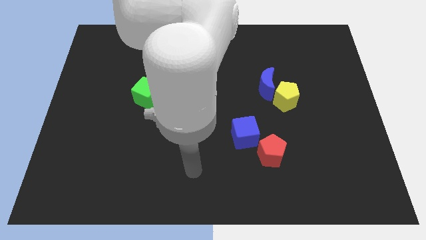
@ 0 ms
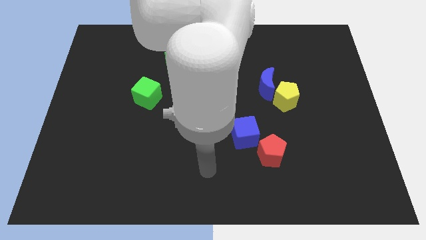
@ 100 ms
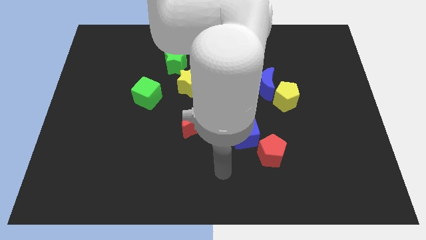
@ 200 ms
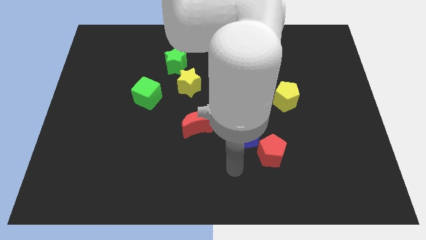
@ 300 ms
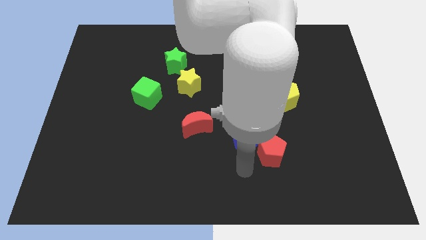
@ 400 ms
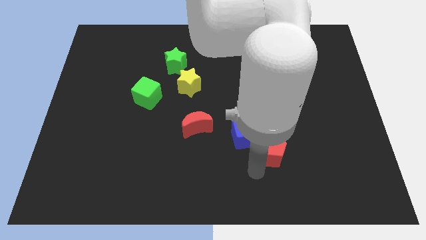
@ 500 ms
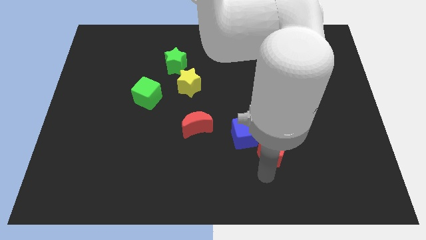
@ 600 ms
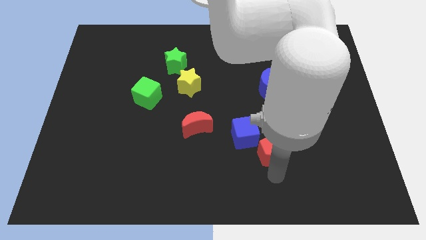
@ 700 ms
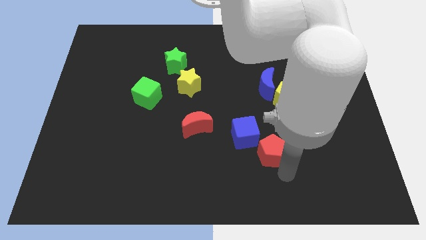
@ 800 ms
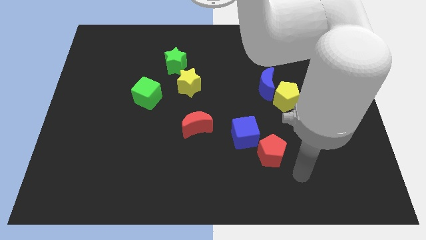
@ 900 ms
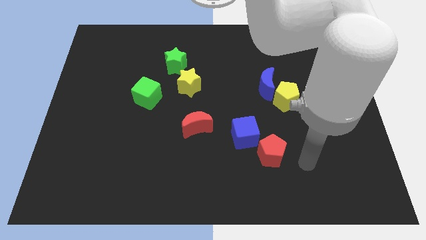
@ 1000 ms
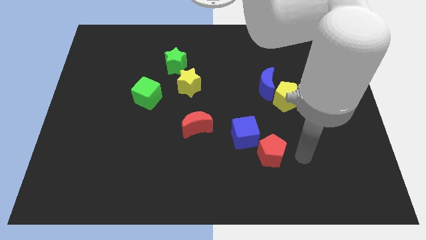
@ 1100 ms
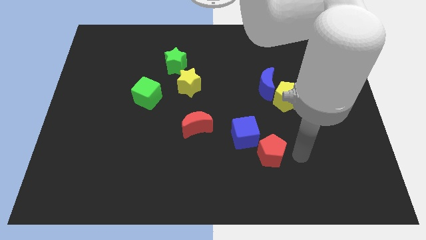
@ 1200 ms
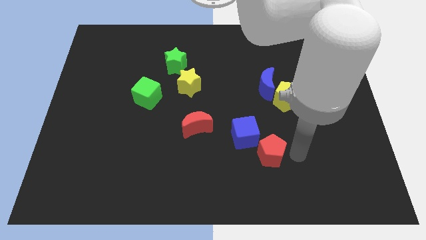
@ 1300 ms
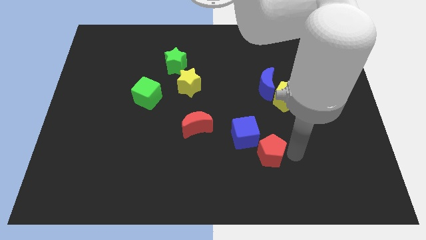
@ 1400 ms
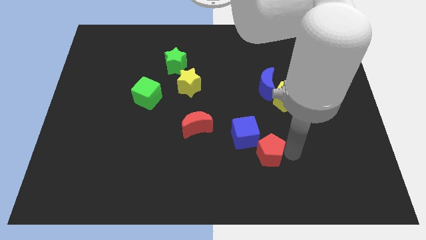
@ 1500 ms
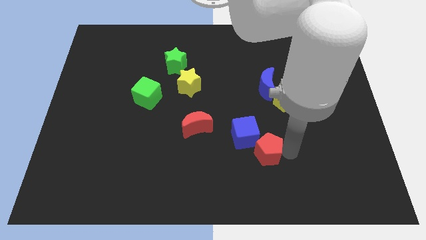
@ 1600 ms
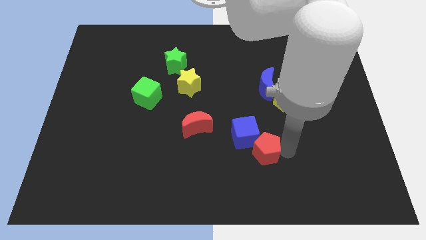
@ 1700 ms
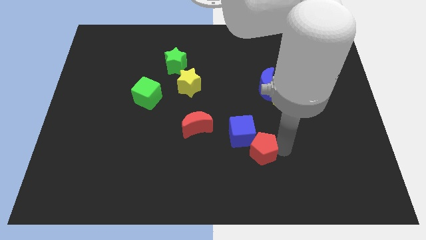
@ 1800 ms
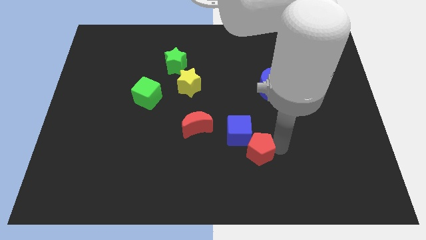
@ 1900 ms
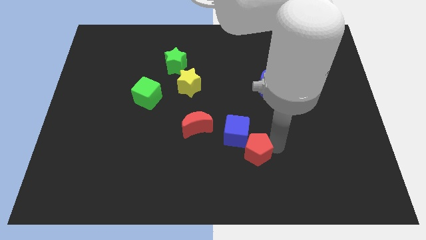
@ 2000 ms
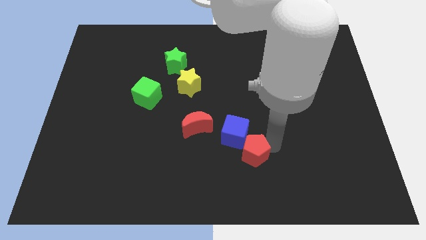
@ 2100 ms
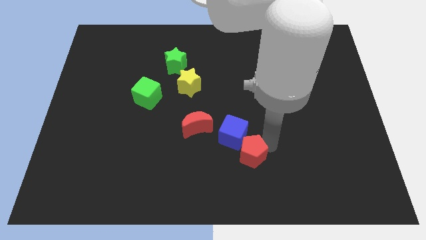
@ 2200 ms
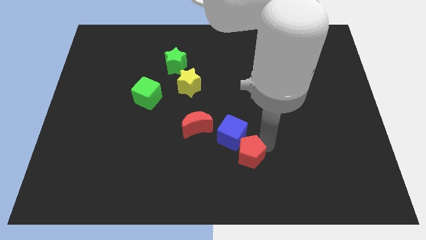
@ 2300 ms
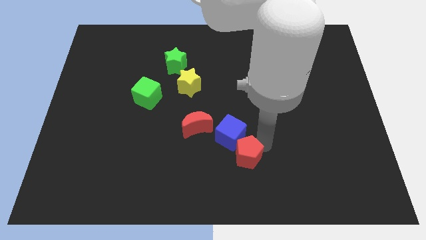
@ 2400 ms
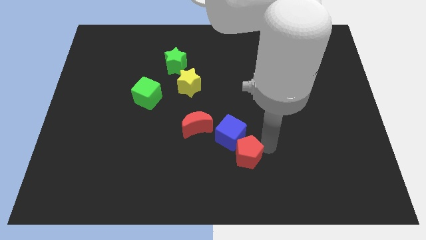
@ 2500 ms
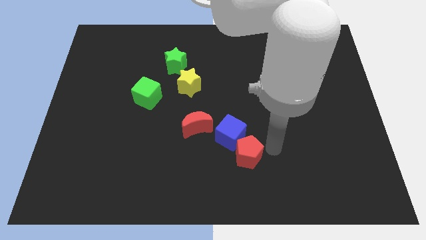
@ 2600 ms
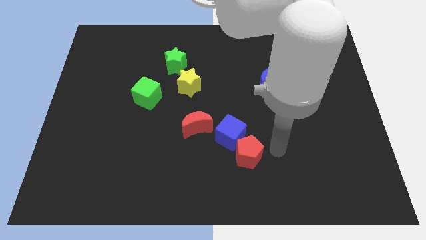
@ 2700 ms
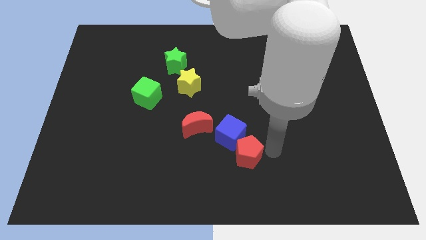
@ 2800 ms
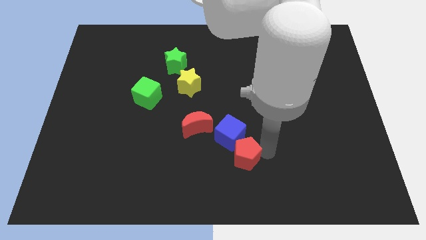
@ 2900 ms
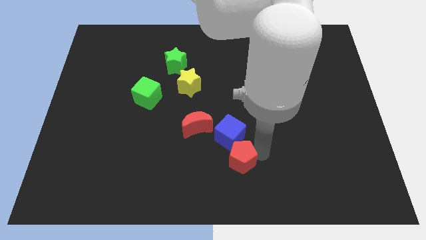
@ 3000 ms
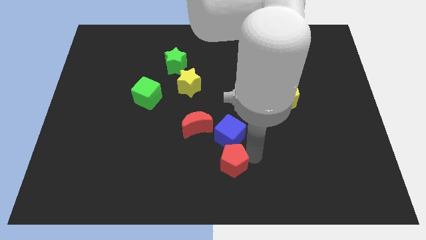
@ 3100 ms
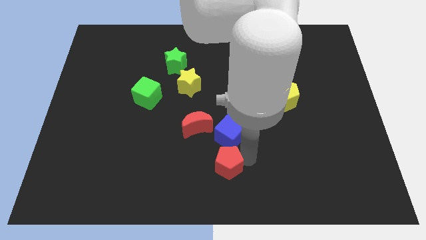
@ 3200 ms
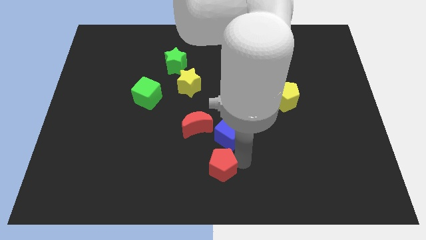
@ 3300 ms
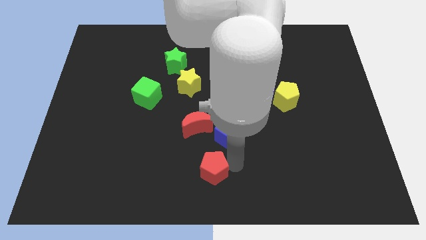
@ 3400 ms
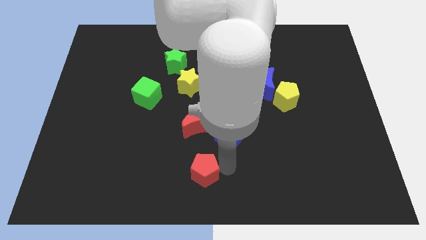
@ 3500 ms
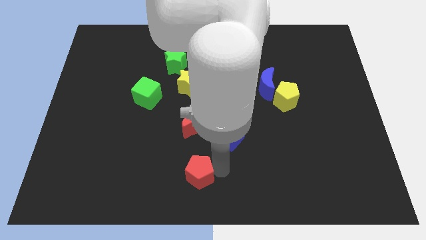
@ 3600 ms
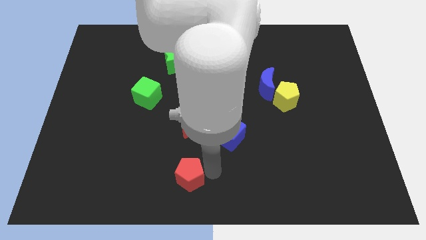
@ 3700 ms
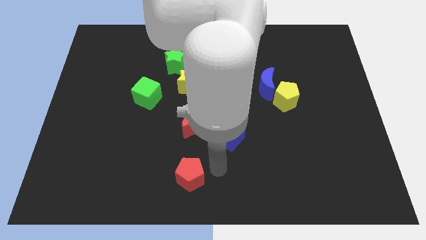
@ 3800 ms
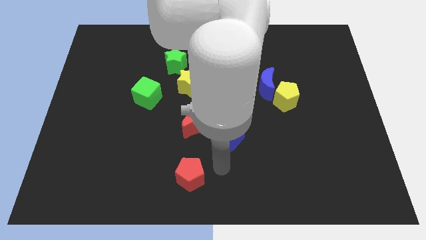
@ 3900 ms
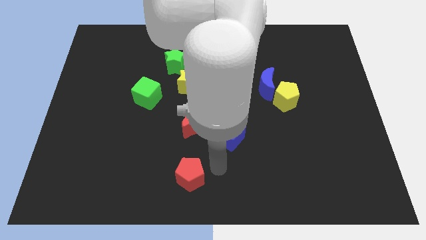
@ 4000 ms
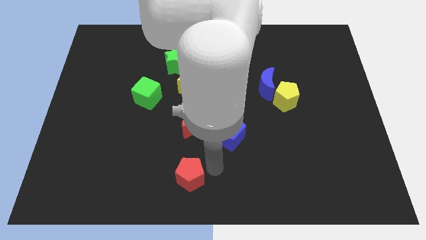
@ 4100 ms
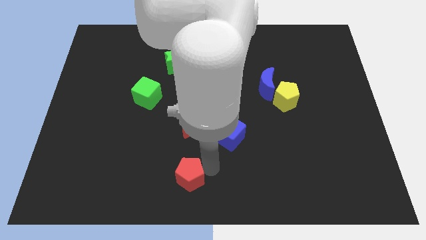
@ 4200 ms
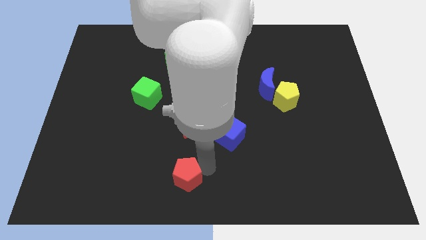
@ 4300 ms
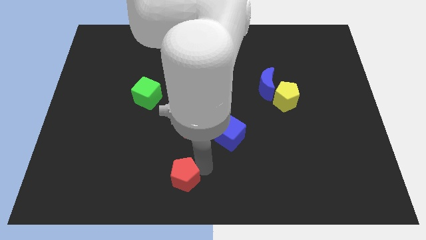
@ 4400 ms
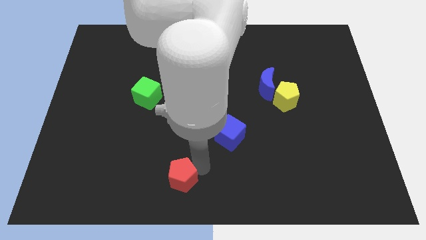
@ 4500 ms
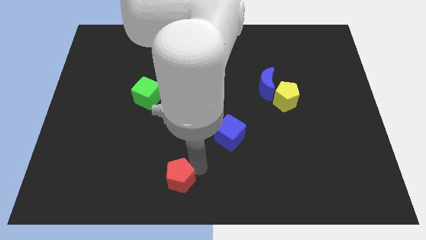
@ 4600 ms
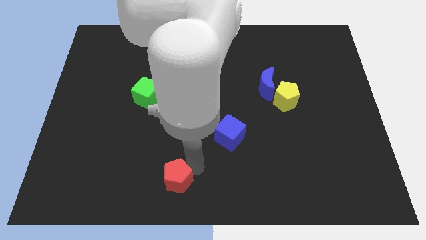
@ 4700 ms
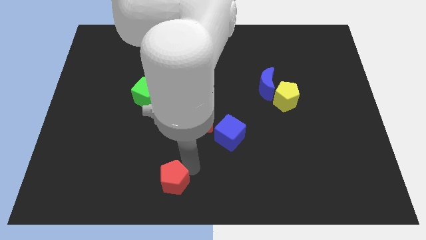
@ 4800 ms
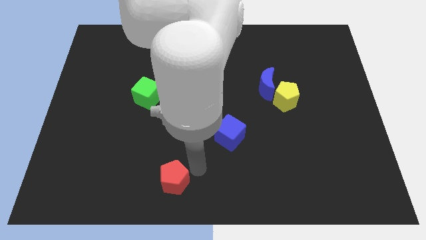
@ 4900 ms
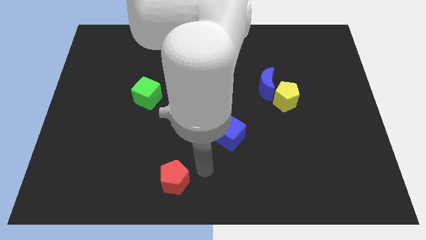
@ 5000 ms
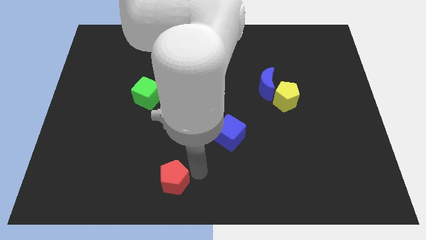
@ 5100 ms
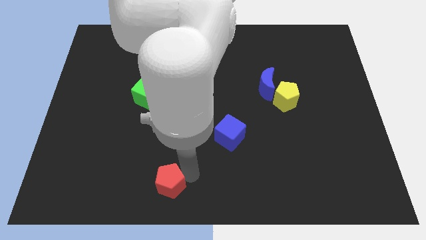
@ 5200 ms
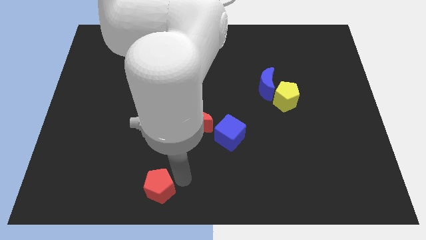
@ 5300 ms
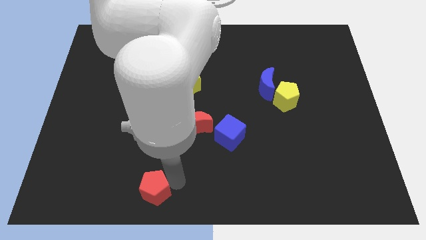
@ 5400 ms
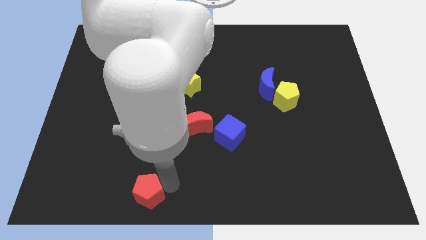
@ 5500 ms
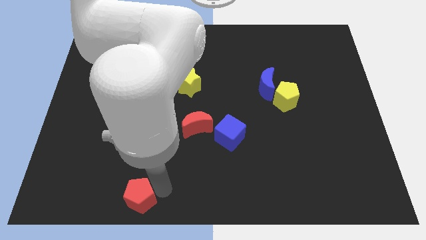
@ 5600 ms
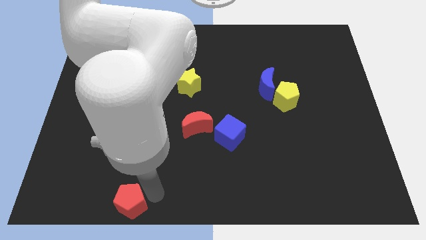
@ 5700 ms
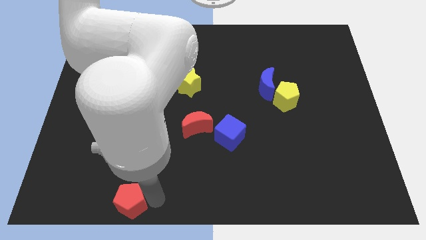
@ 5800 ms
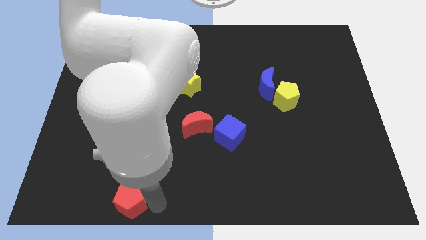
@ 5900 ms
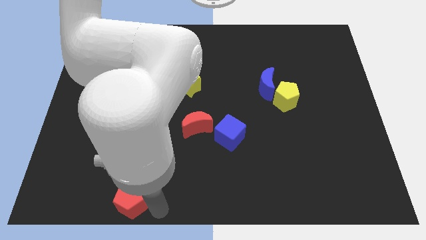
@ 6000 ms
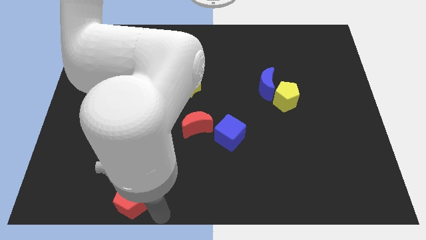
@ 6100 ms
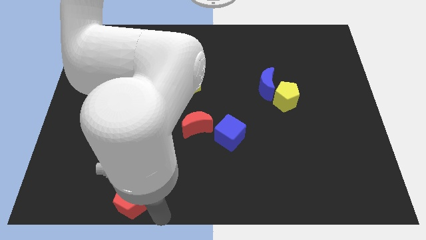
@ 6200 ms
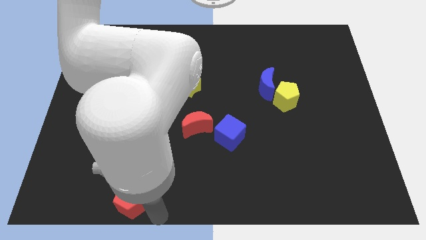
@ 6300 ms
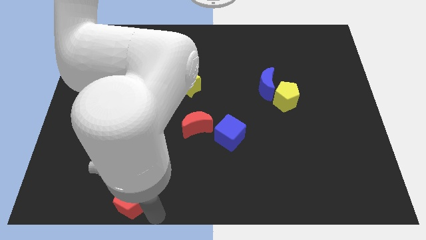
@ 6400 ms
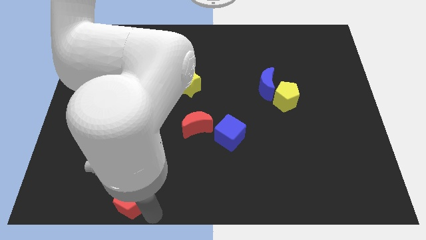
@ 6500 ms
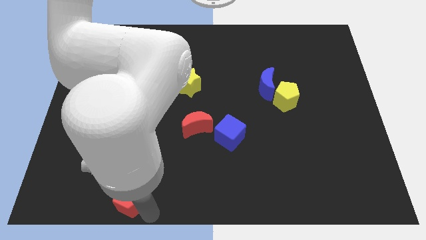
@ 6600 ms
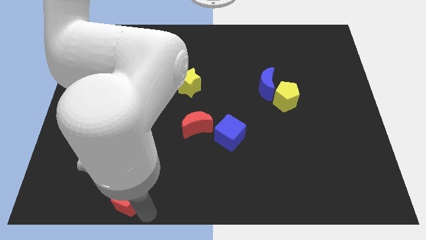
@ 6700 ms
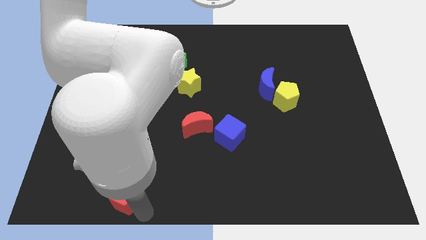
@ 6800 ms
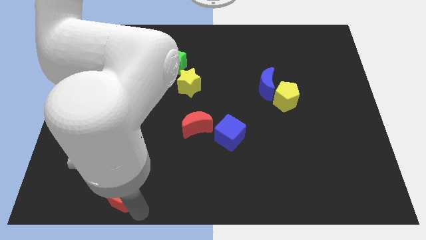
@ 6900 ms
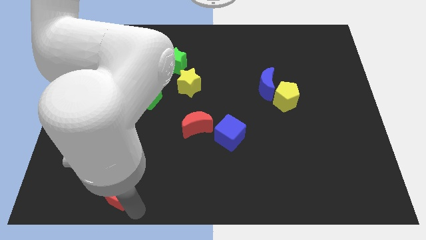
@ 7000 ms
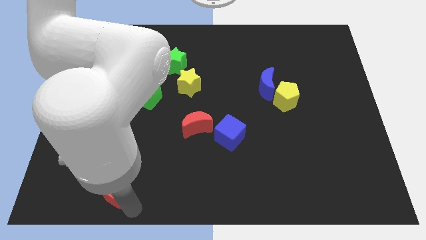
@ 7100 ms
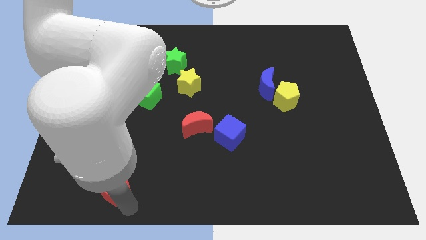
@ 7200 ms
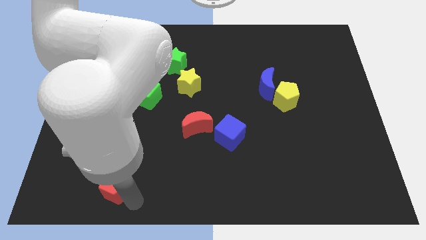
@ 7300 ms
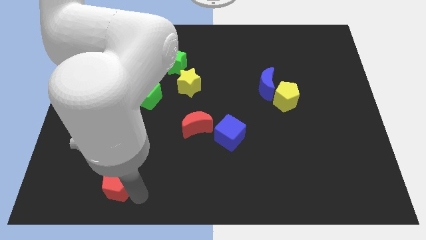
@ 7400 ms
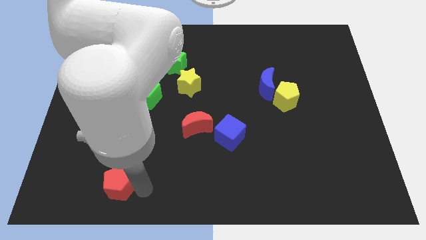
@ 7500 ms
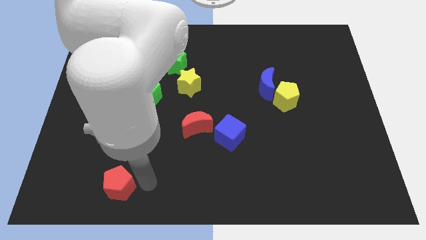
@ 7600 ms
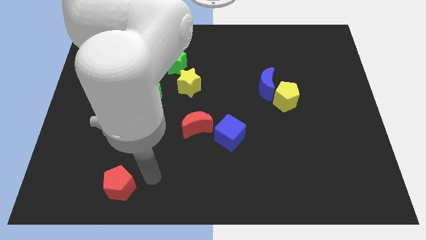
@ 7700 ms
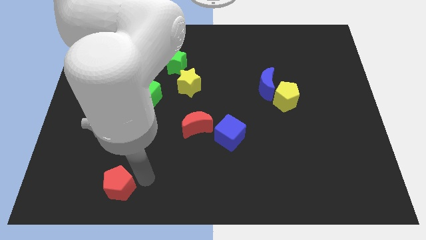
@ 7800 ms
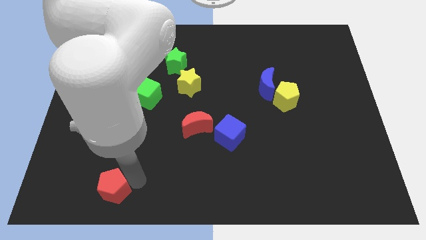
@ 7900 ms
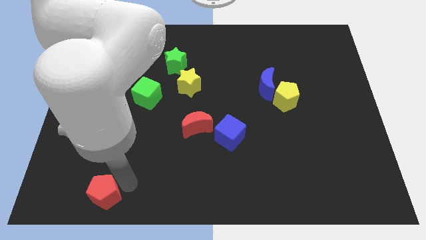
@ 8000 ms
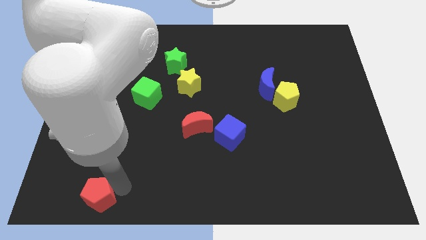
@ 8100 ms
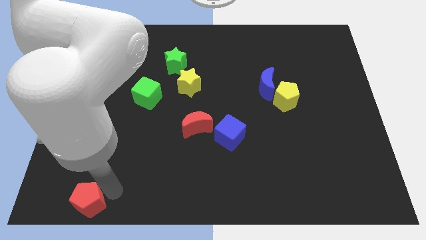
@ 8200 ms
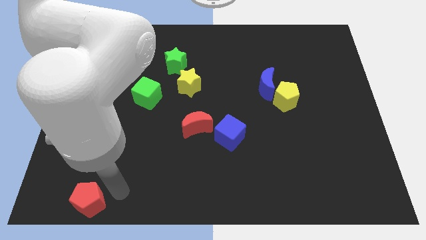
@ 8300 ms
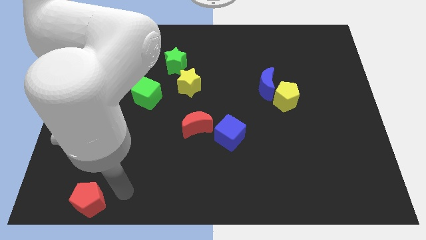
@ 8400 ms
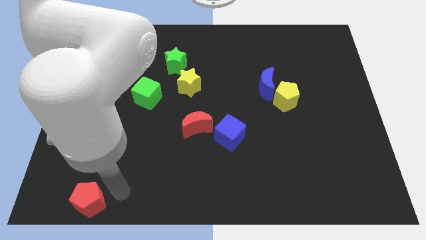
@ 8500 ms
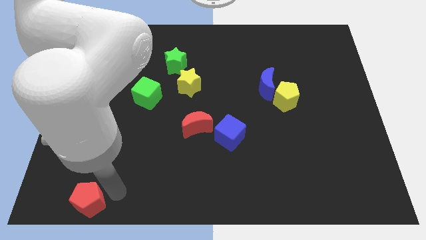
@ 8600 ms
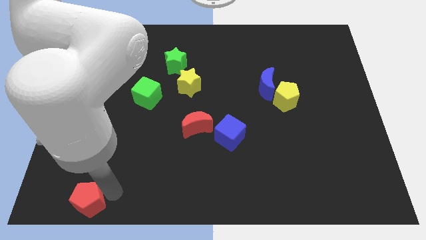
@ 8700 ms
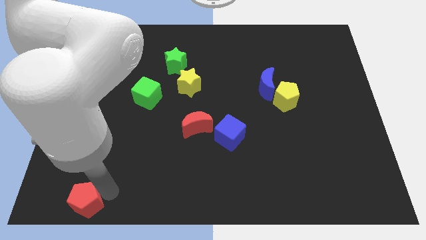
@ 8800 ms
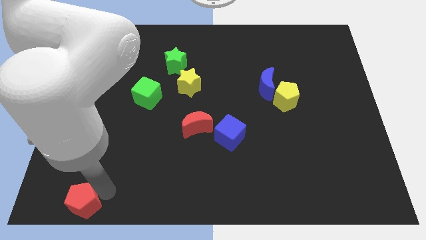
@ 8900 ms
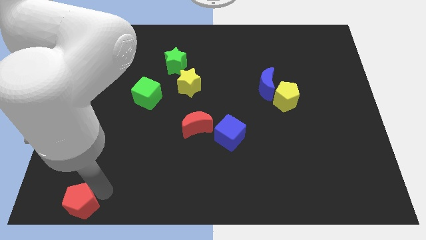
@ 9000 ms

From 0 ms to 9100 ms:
slide the red pentagon to the lower left corner
